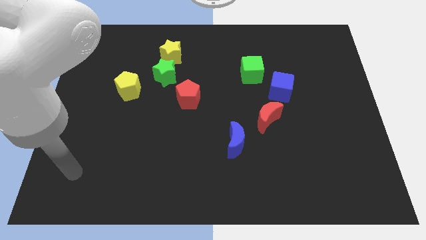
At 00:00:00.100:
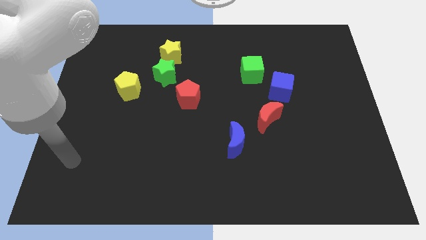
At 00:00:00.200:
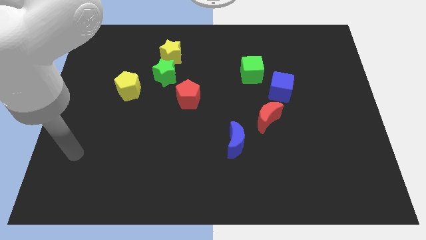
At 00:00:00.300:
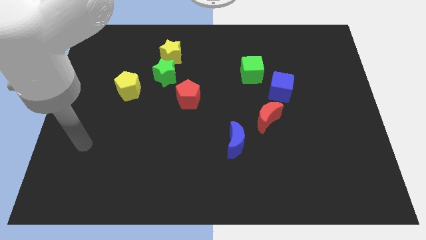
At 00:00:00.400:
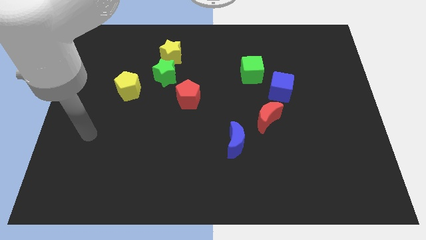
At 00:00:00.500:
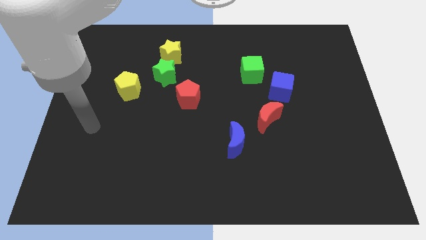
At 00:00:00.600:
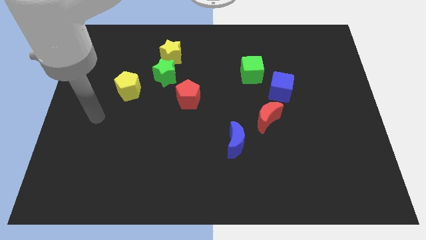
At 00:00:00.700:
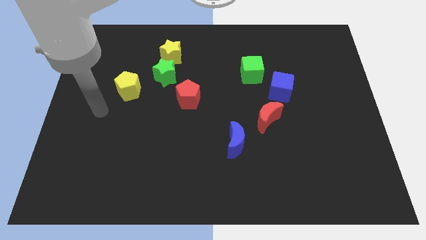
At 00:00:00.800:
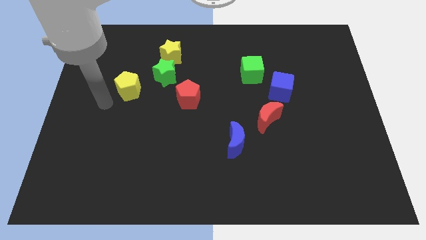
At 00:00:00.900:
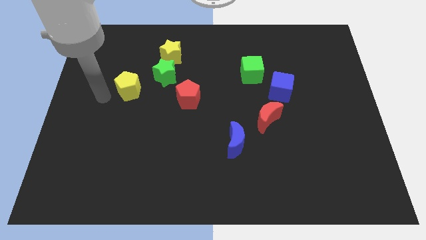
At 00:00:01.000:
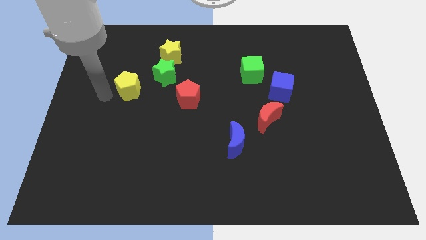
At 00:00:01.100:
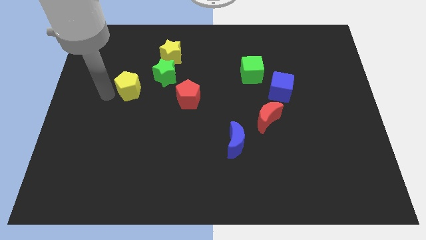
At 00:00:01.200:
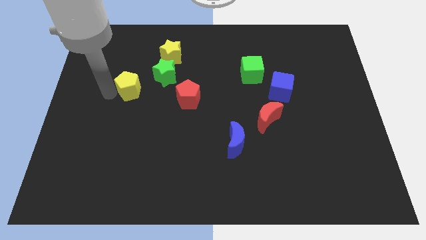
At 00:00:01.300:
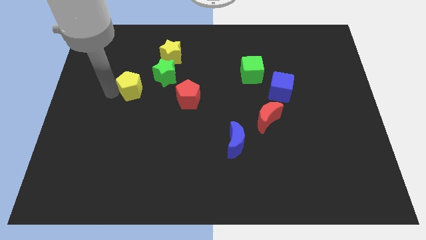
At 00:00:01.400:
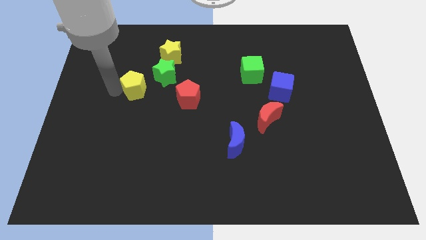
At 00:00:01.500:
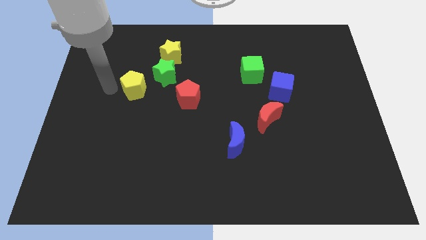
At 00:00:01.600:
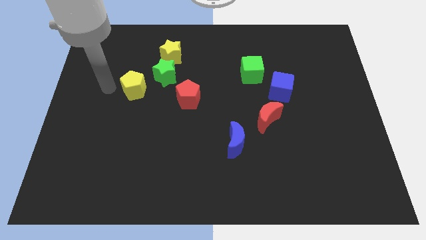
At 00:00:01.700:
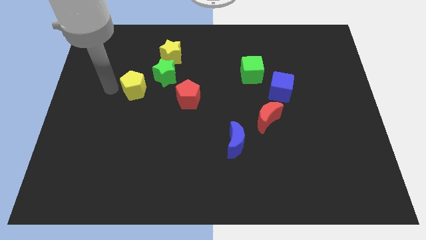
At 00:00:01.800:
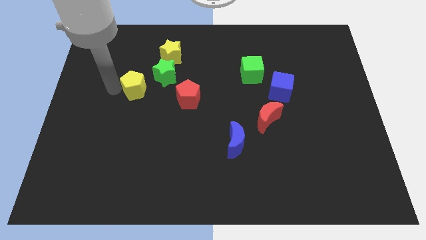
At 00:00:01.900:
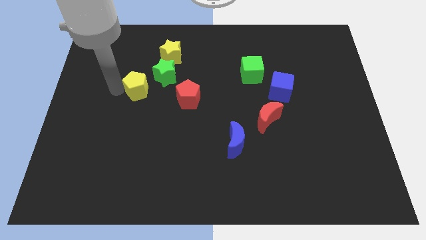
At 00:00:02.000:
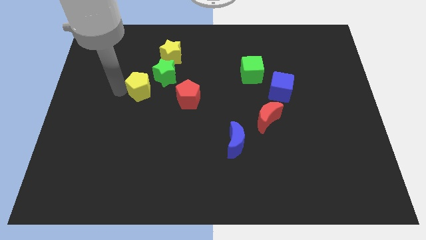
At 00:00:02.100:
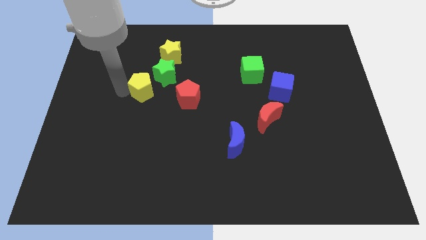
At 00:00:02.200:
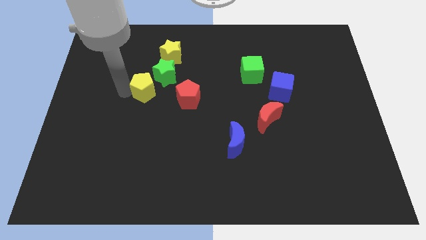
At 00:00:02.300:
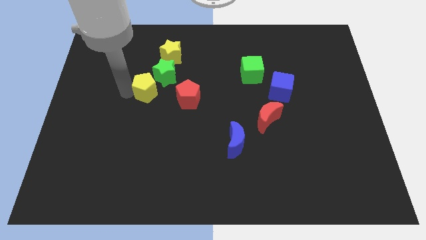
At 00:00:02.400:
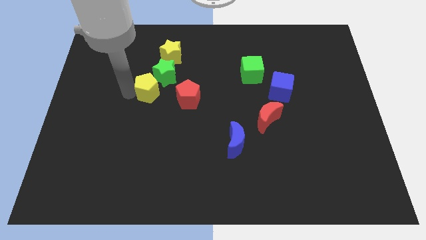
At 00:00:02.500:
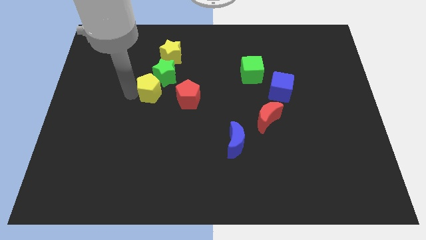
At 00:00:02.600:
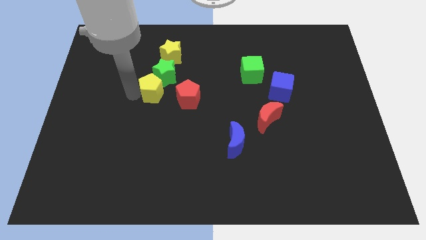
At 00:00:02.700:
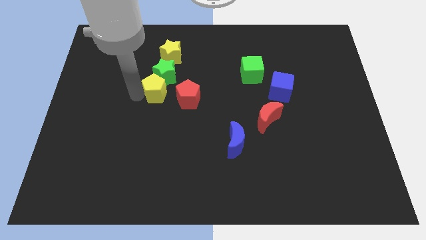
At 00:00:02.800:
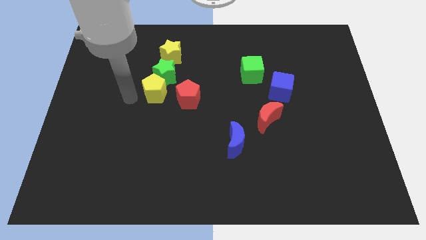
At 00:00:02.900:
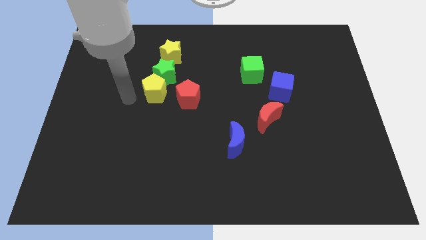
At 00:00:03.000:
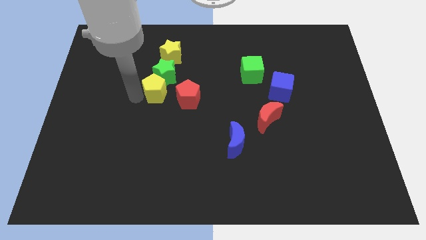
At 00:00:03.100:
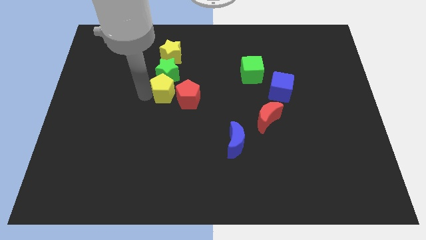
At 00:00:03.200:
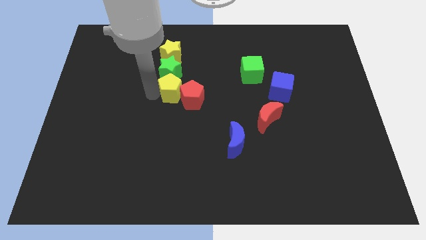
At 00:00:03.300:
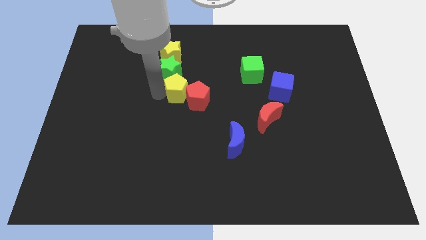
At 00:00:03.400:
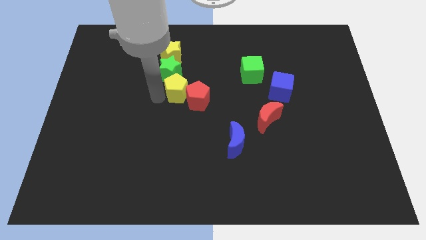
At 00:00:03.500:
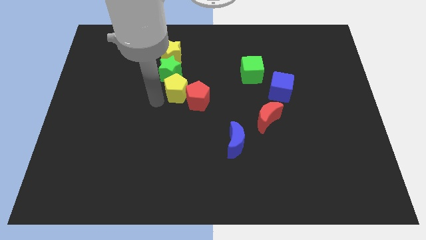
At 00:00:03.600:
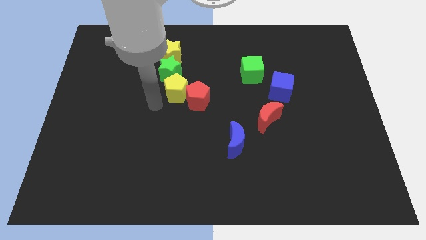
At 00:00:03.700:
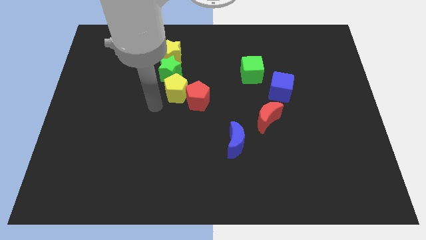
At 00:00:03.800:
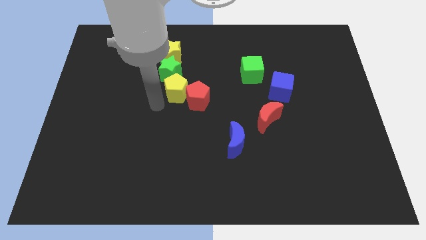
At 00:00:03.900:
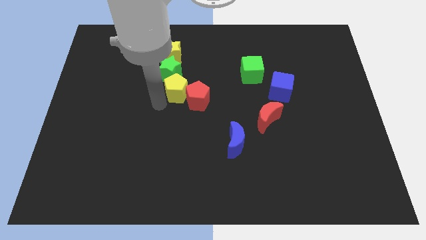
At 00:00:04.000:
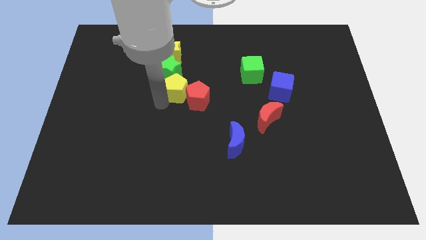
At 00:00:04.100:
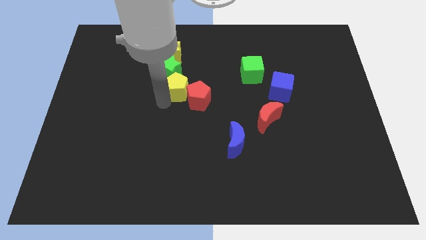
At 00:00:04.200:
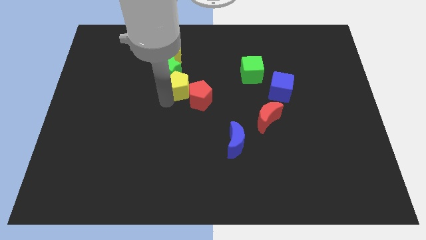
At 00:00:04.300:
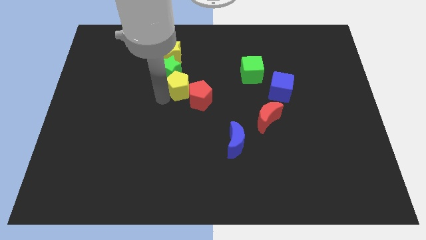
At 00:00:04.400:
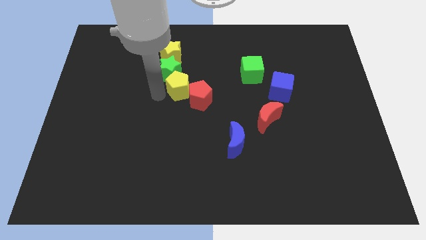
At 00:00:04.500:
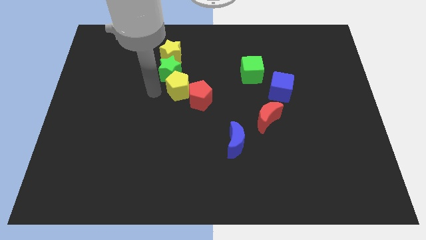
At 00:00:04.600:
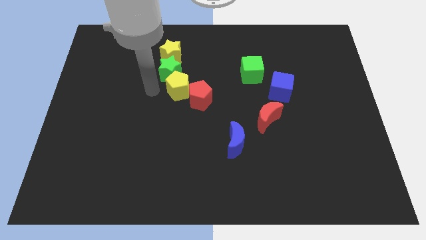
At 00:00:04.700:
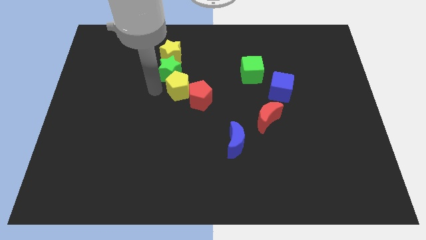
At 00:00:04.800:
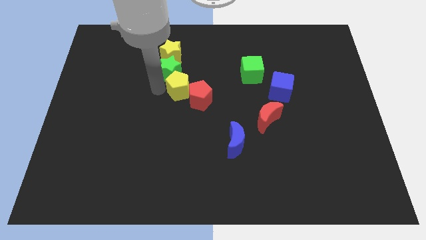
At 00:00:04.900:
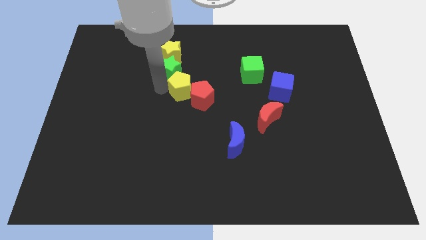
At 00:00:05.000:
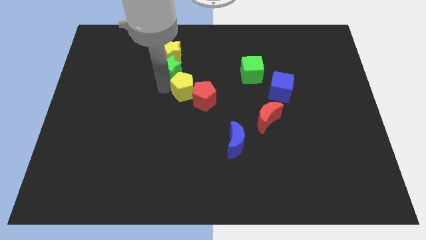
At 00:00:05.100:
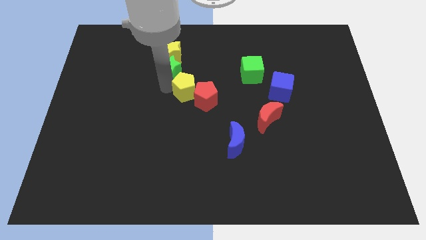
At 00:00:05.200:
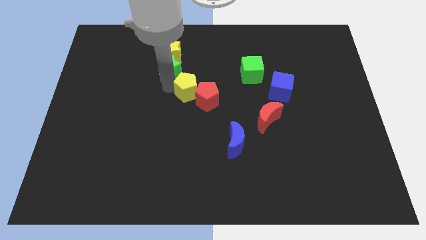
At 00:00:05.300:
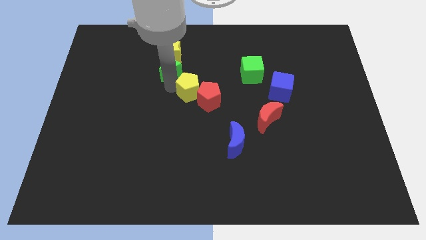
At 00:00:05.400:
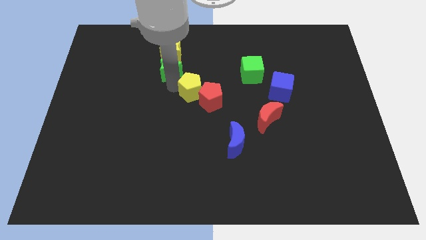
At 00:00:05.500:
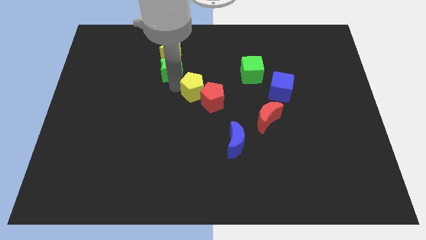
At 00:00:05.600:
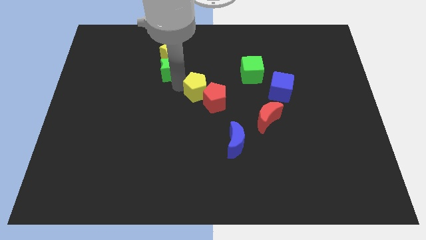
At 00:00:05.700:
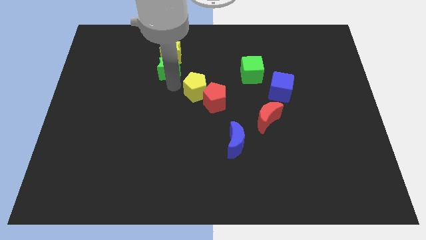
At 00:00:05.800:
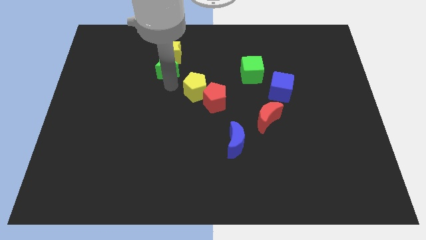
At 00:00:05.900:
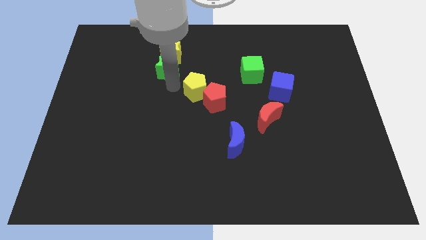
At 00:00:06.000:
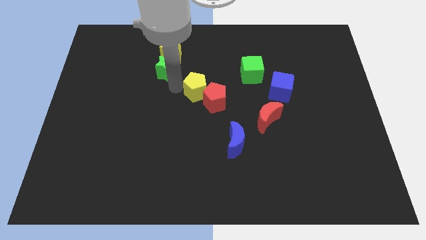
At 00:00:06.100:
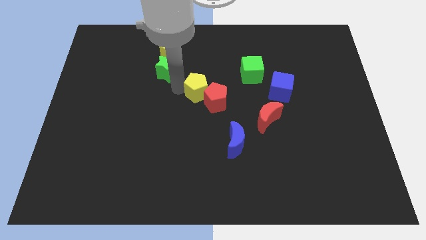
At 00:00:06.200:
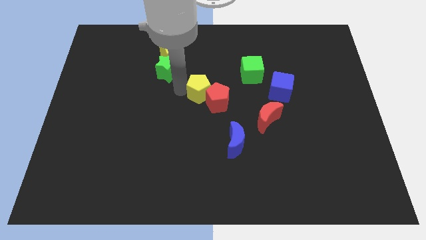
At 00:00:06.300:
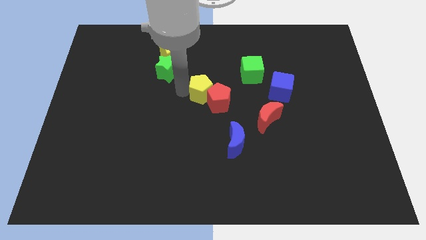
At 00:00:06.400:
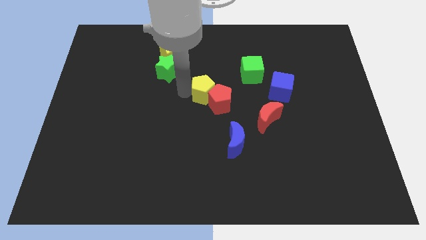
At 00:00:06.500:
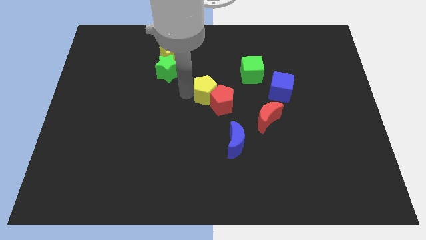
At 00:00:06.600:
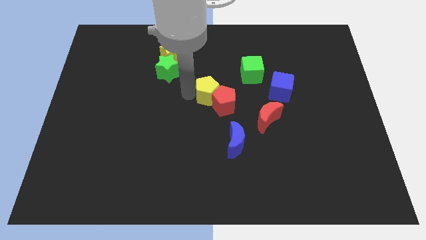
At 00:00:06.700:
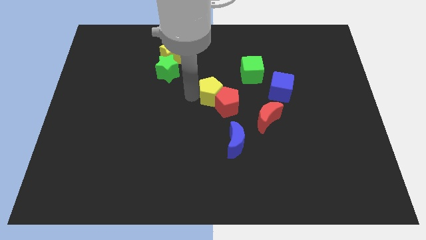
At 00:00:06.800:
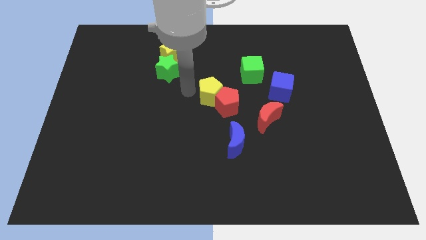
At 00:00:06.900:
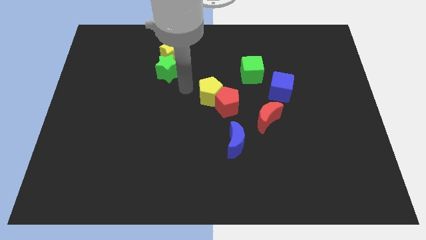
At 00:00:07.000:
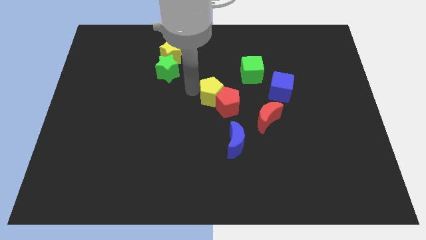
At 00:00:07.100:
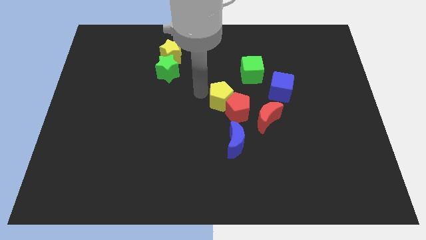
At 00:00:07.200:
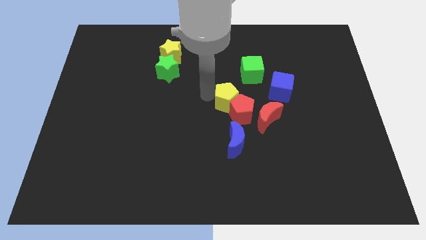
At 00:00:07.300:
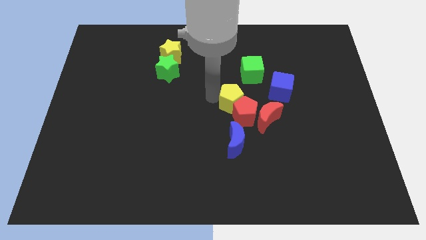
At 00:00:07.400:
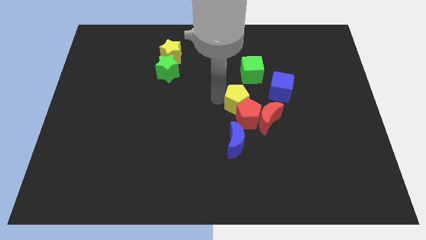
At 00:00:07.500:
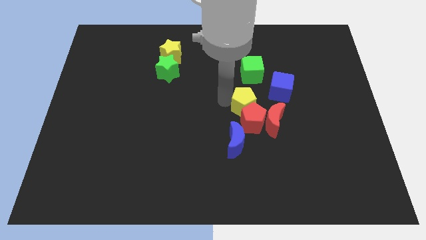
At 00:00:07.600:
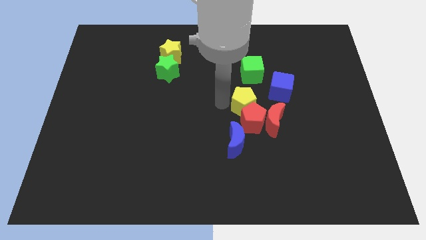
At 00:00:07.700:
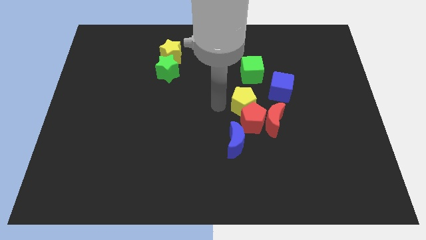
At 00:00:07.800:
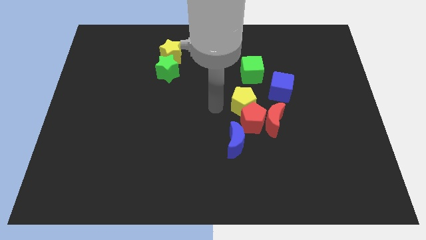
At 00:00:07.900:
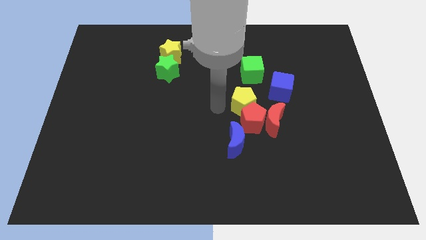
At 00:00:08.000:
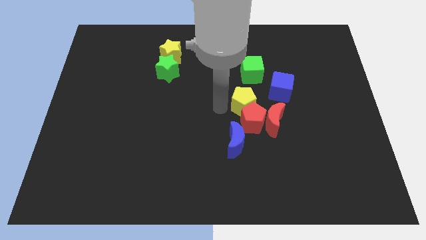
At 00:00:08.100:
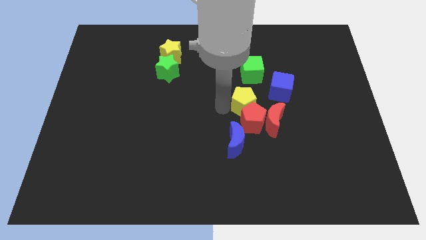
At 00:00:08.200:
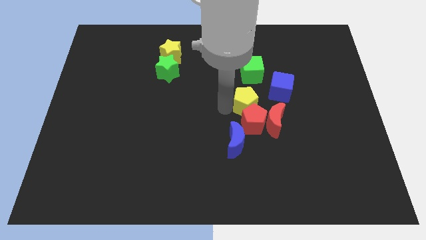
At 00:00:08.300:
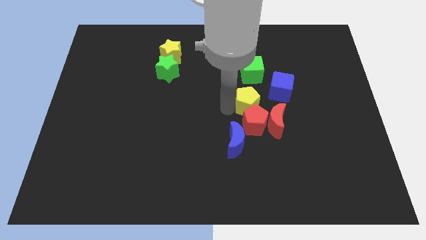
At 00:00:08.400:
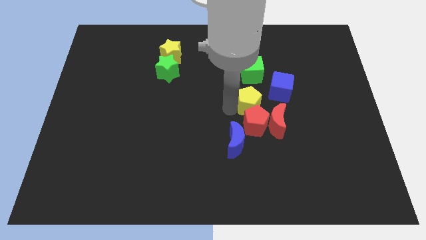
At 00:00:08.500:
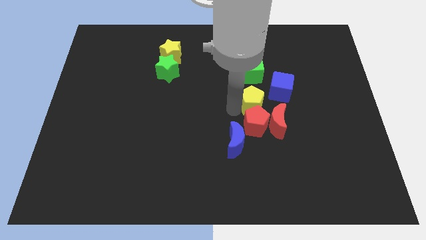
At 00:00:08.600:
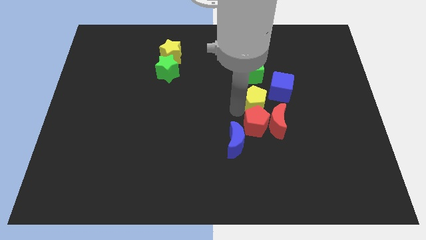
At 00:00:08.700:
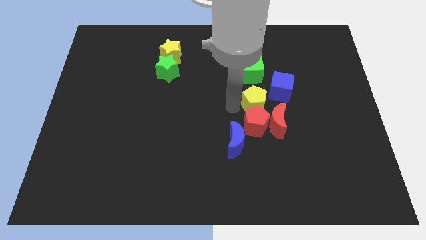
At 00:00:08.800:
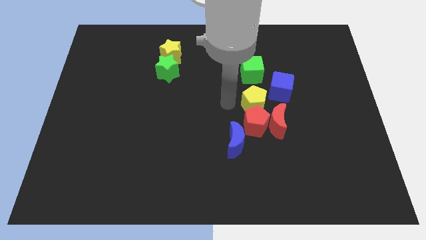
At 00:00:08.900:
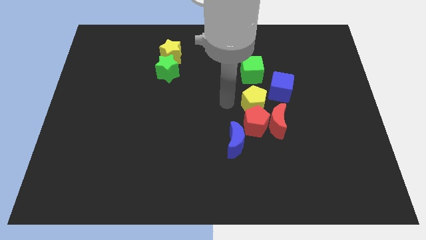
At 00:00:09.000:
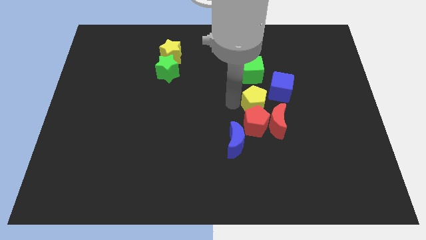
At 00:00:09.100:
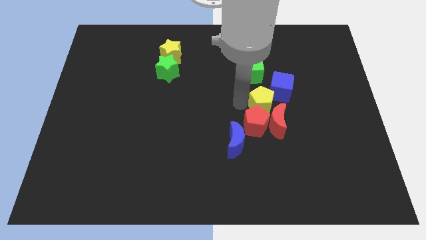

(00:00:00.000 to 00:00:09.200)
put the yellow pentagon to the bottom of the blue cube
